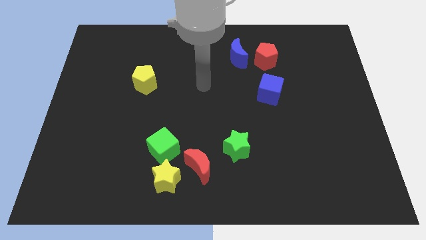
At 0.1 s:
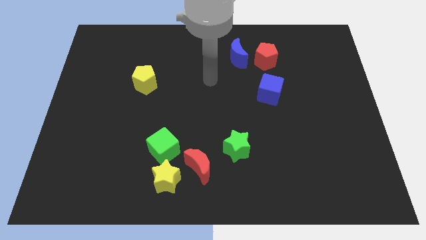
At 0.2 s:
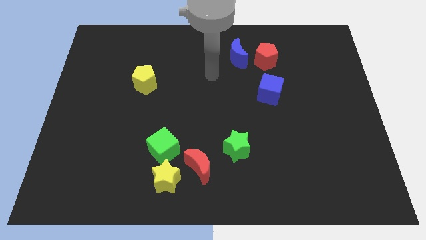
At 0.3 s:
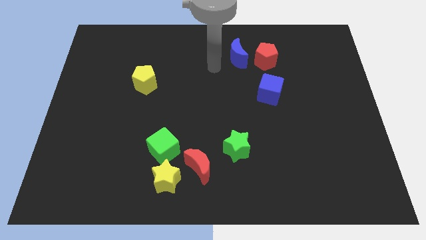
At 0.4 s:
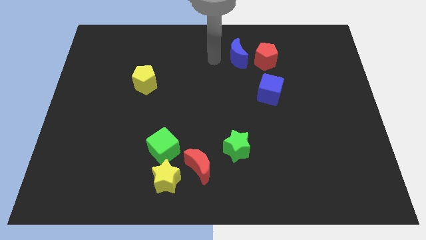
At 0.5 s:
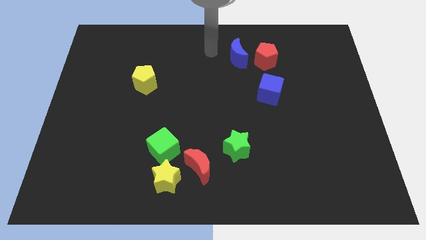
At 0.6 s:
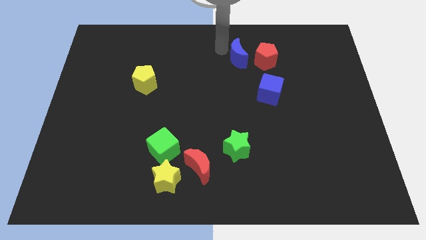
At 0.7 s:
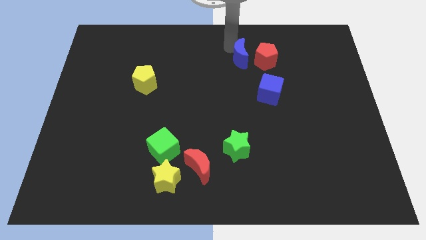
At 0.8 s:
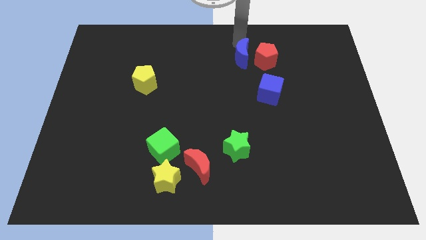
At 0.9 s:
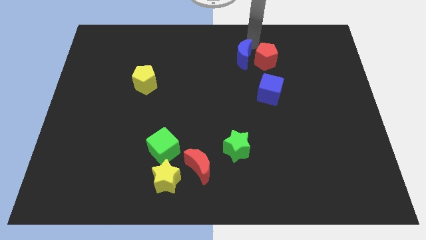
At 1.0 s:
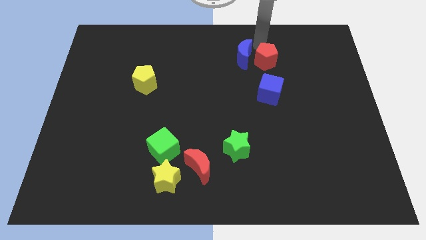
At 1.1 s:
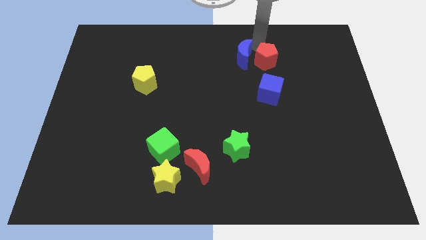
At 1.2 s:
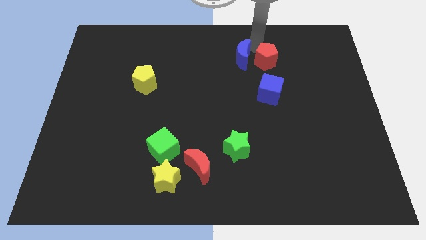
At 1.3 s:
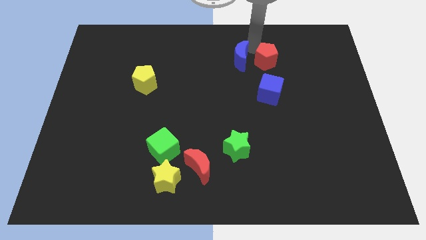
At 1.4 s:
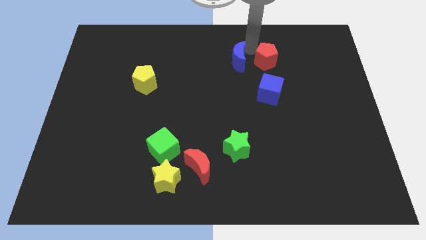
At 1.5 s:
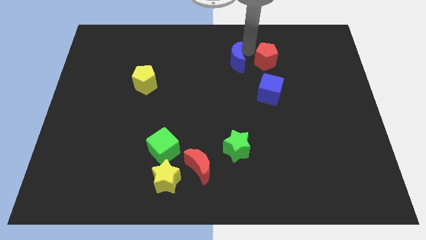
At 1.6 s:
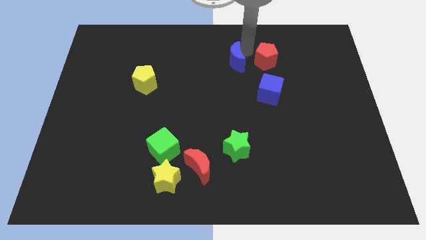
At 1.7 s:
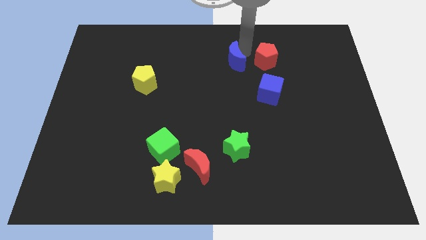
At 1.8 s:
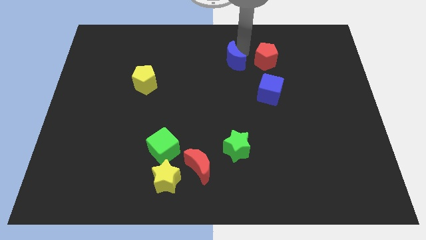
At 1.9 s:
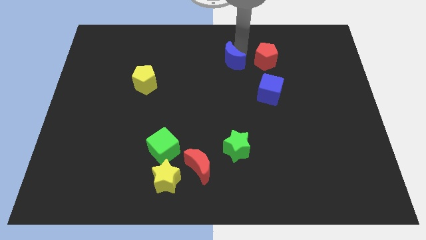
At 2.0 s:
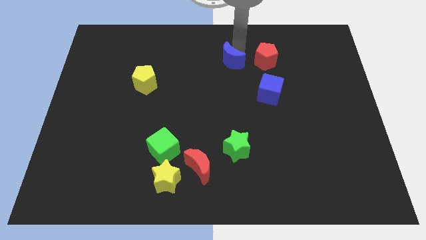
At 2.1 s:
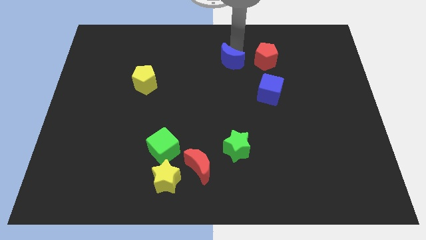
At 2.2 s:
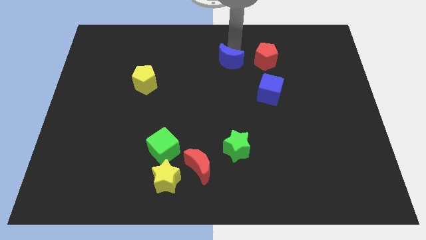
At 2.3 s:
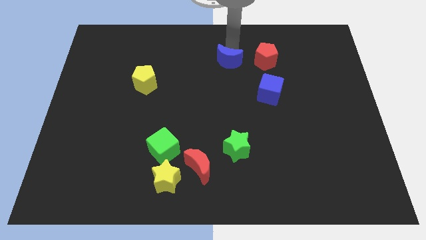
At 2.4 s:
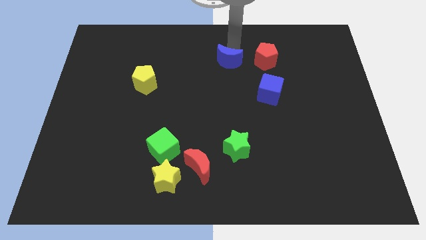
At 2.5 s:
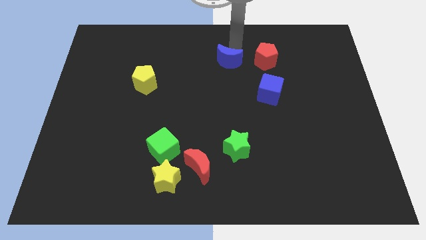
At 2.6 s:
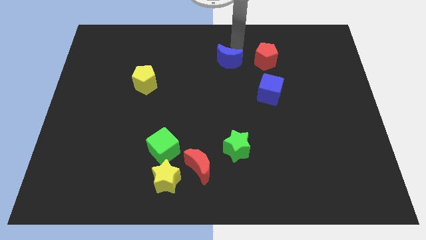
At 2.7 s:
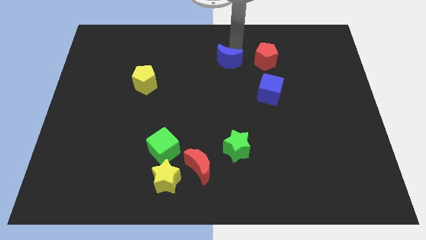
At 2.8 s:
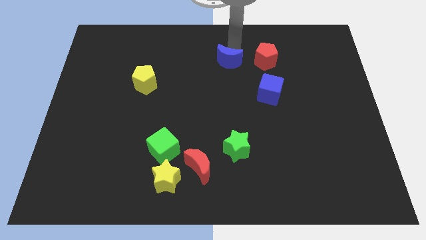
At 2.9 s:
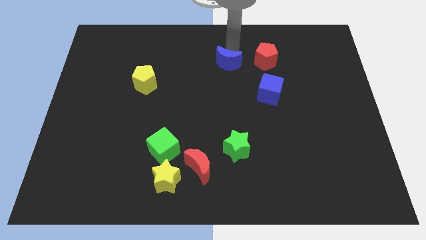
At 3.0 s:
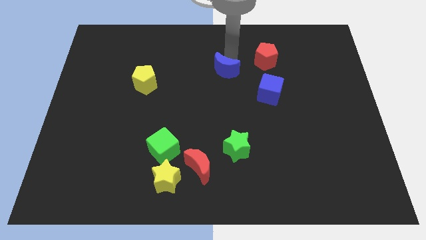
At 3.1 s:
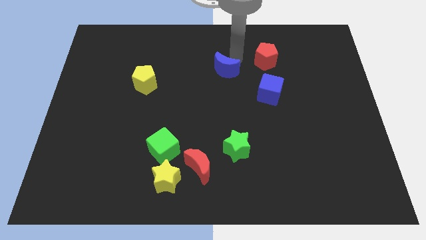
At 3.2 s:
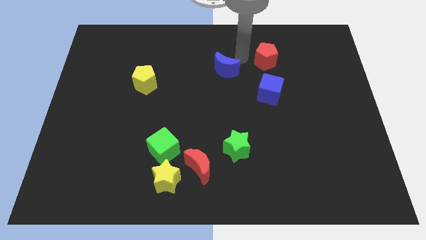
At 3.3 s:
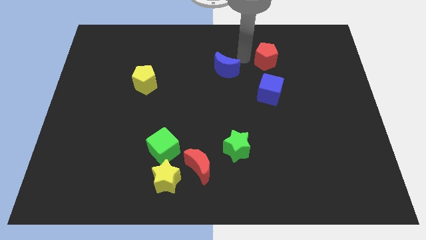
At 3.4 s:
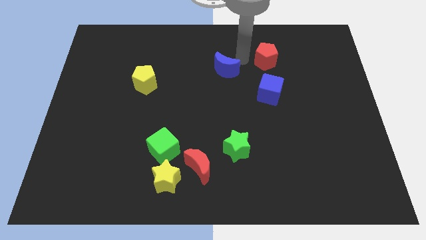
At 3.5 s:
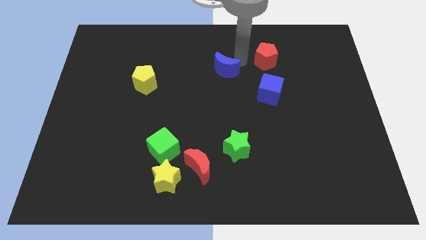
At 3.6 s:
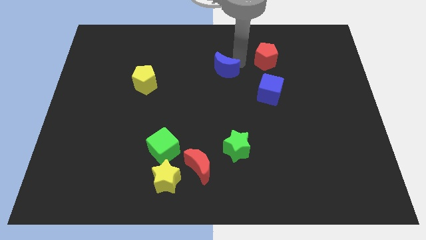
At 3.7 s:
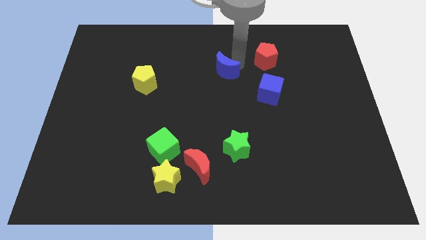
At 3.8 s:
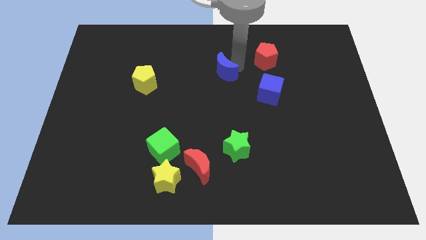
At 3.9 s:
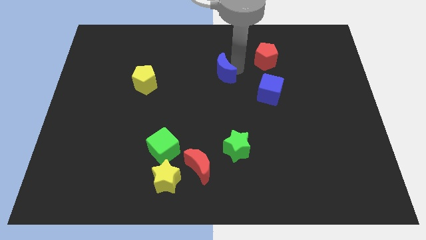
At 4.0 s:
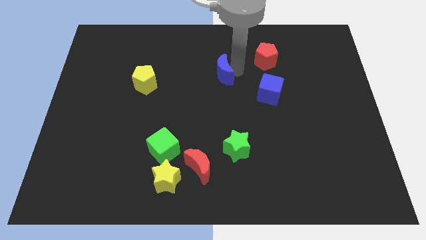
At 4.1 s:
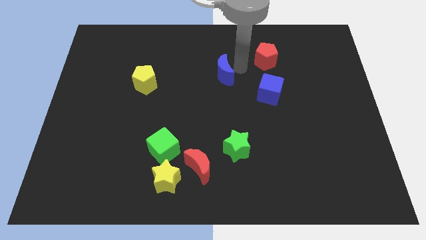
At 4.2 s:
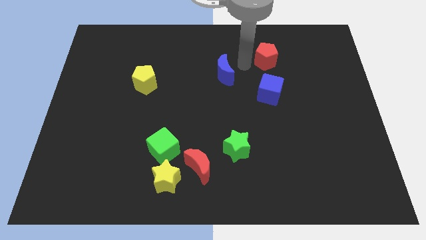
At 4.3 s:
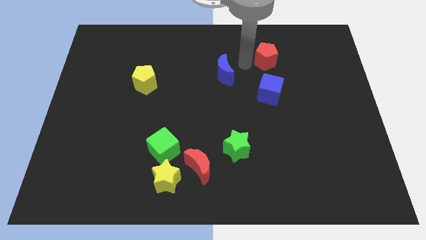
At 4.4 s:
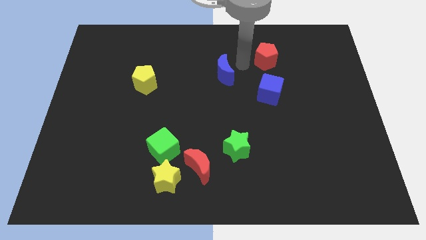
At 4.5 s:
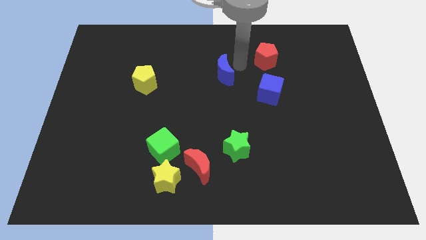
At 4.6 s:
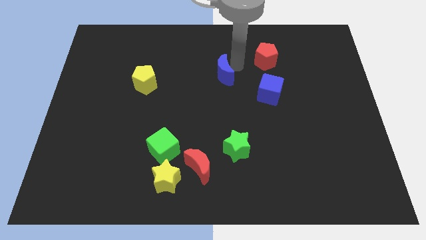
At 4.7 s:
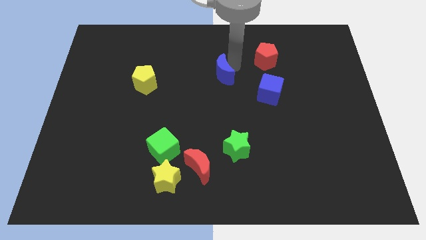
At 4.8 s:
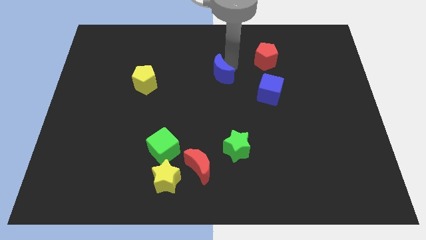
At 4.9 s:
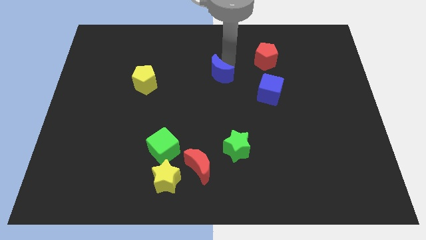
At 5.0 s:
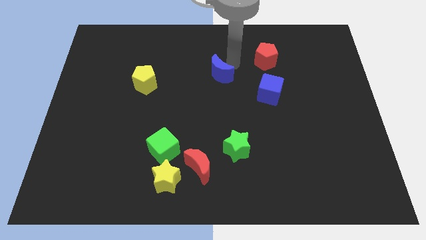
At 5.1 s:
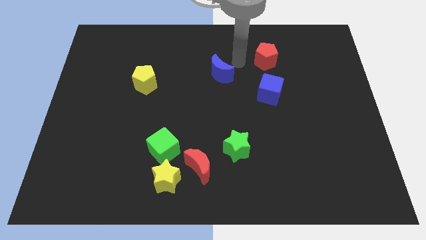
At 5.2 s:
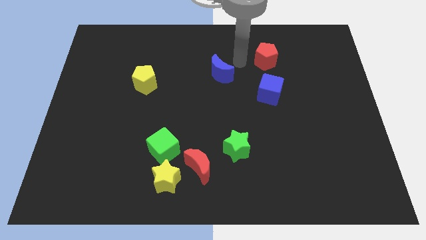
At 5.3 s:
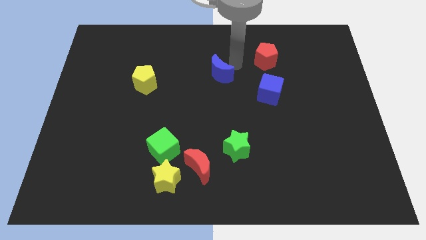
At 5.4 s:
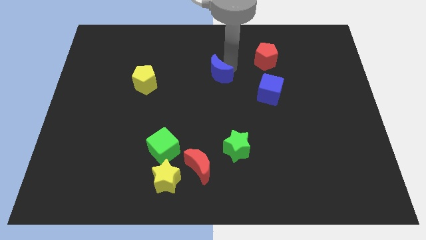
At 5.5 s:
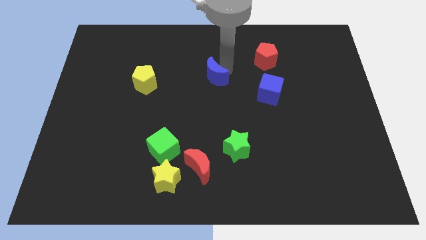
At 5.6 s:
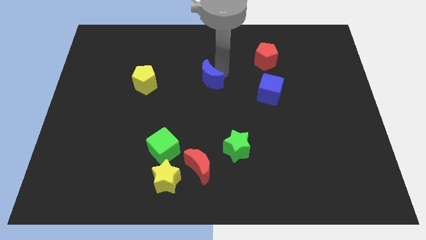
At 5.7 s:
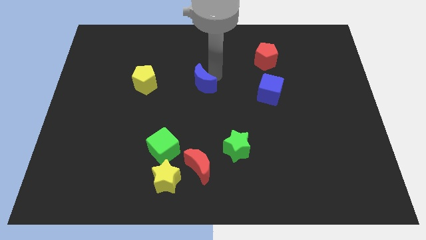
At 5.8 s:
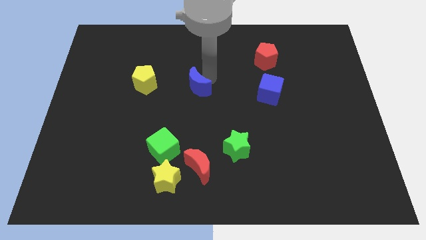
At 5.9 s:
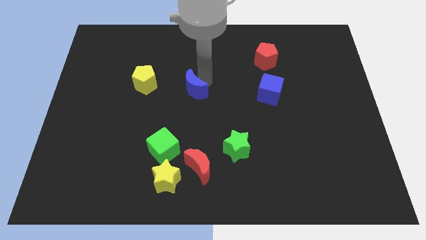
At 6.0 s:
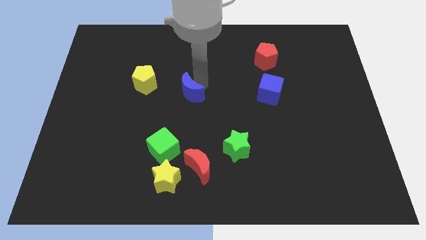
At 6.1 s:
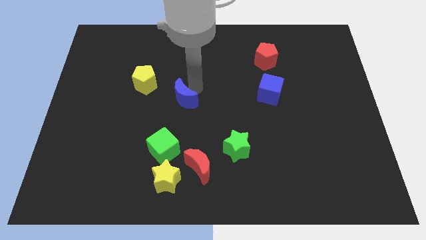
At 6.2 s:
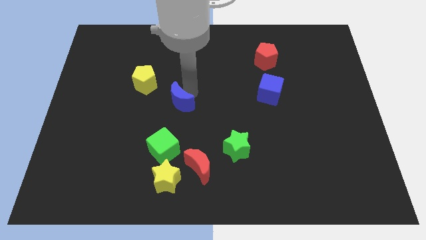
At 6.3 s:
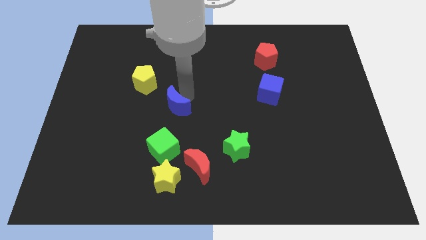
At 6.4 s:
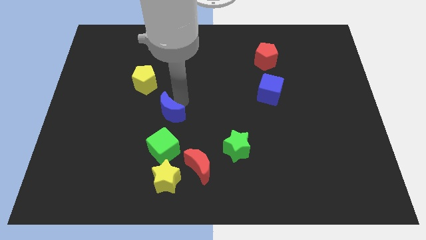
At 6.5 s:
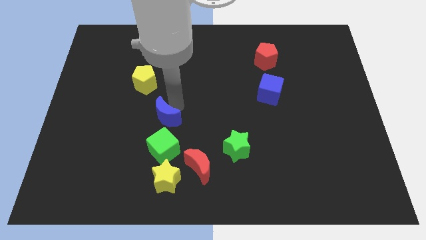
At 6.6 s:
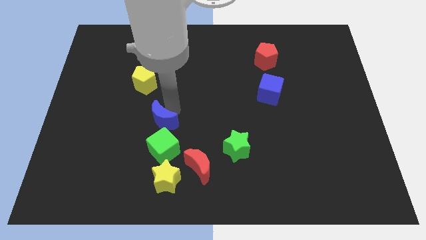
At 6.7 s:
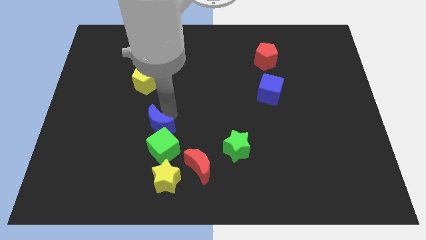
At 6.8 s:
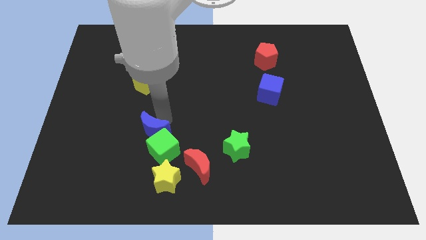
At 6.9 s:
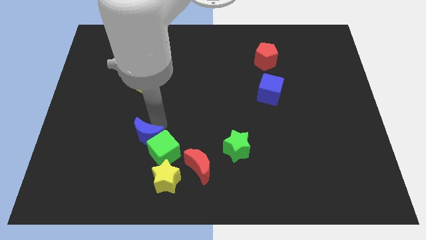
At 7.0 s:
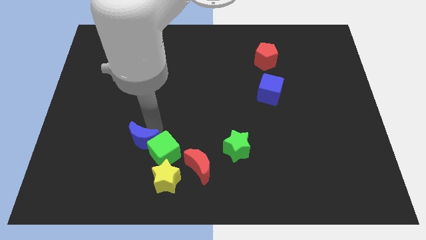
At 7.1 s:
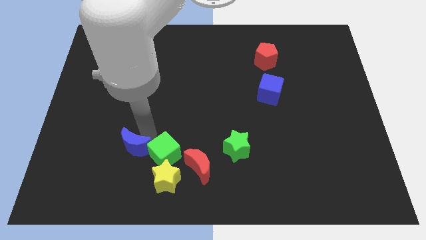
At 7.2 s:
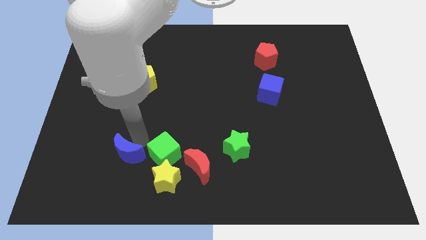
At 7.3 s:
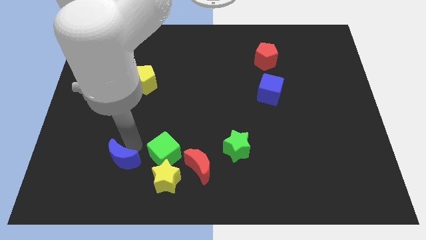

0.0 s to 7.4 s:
push the blue moon just left of the yellow star
